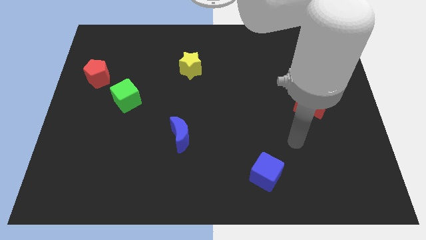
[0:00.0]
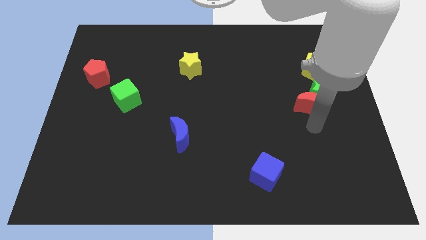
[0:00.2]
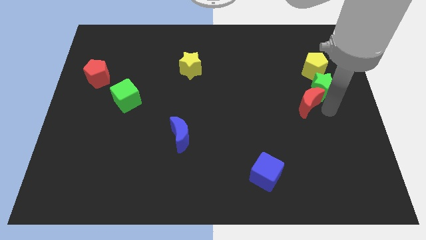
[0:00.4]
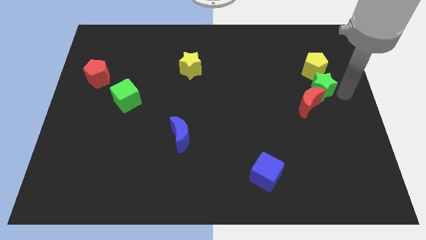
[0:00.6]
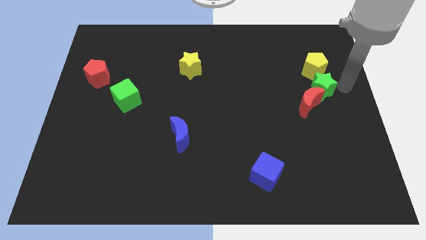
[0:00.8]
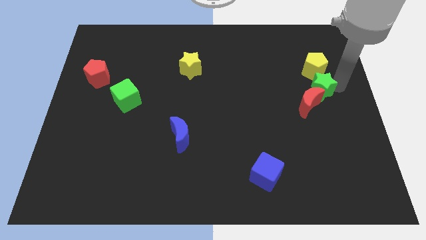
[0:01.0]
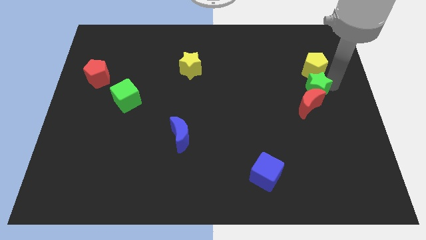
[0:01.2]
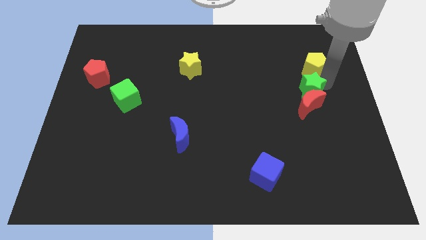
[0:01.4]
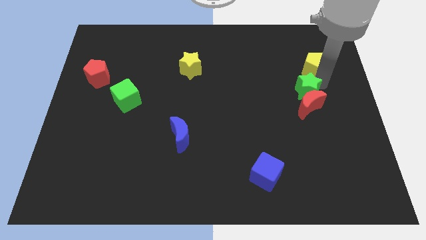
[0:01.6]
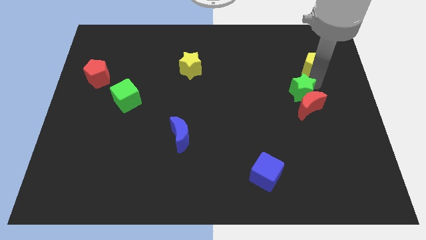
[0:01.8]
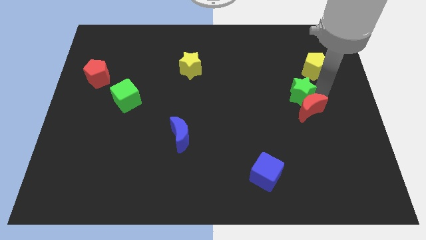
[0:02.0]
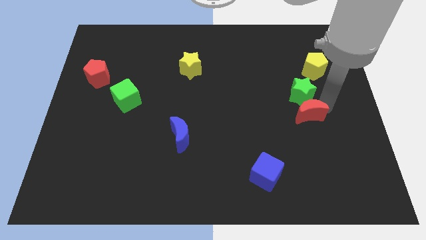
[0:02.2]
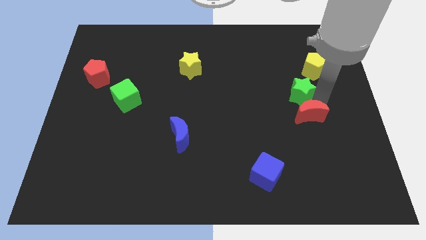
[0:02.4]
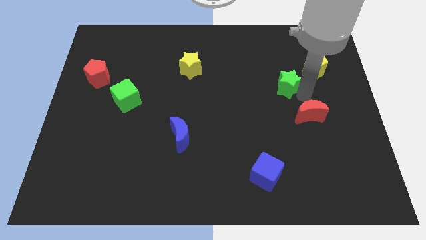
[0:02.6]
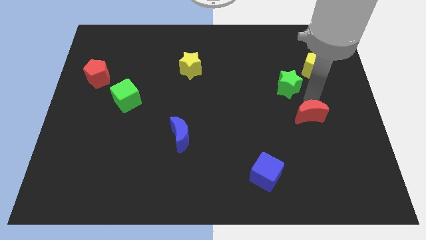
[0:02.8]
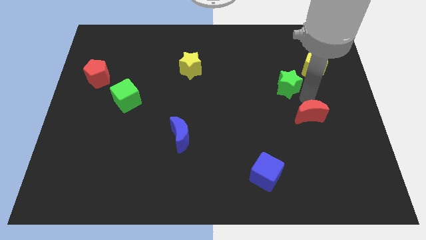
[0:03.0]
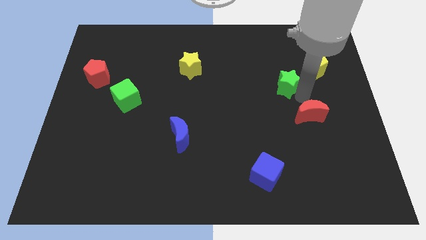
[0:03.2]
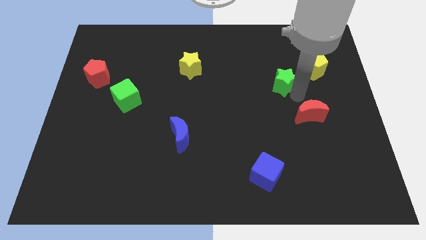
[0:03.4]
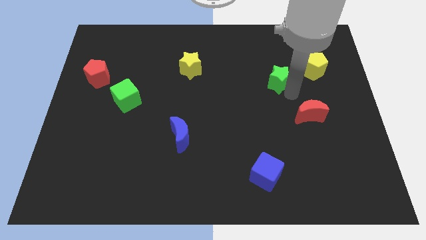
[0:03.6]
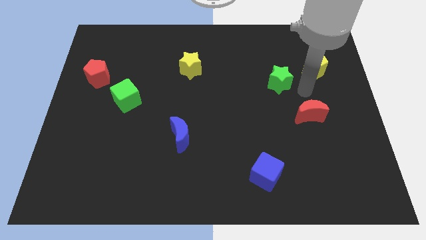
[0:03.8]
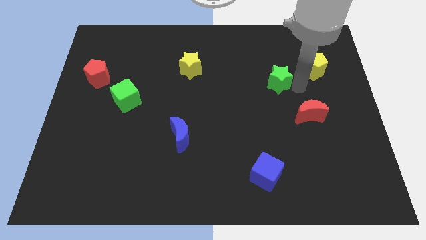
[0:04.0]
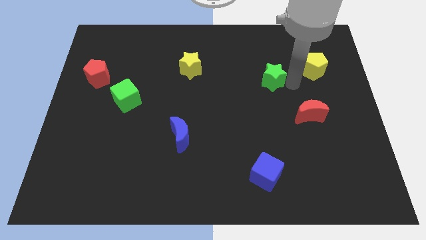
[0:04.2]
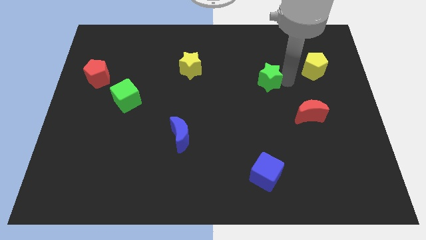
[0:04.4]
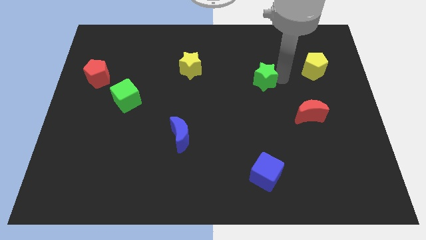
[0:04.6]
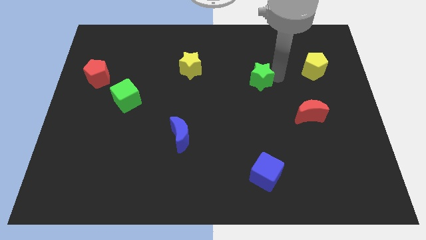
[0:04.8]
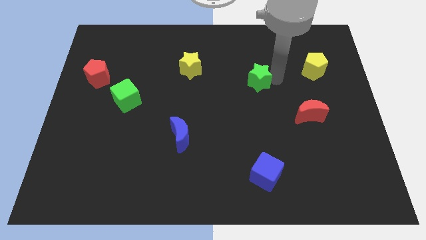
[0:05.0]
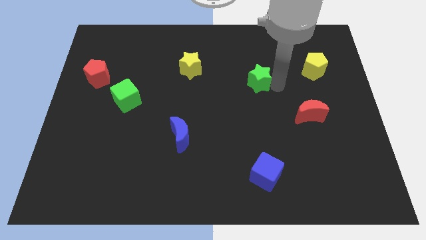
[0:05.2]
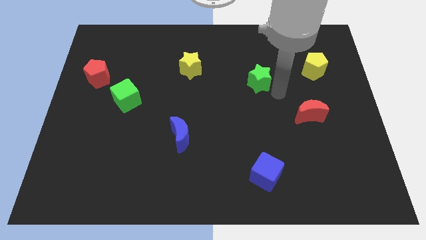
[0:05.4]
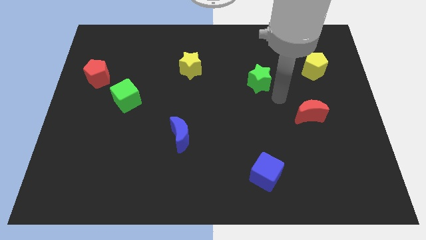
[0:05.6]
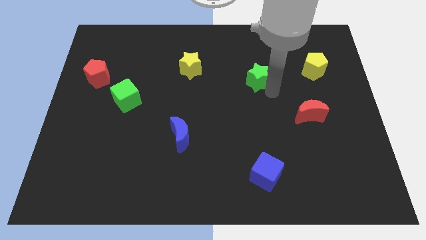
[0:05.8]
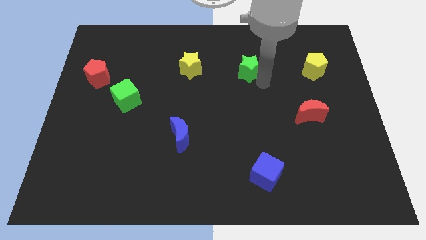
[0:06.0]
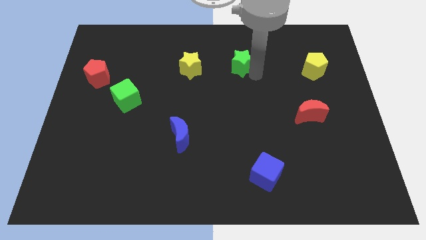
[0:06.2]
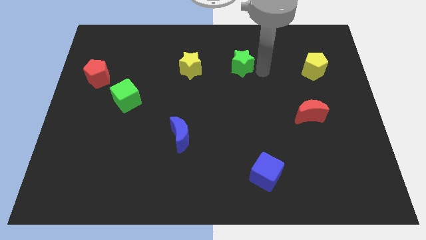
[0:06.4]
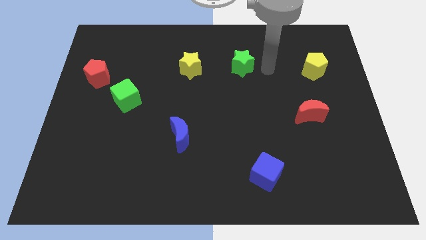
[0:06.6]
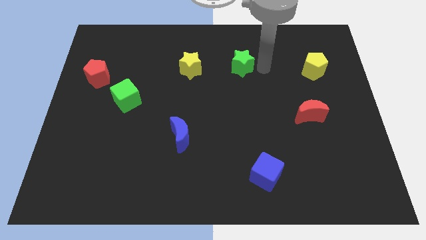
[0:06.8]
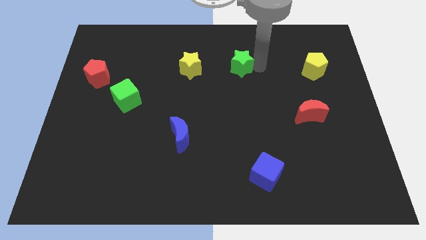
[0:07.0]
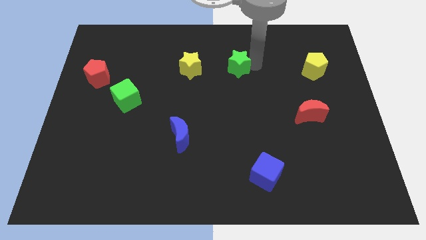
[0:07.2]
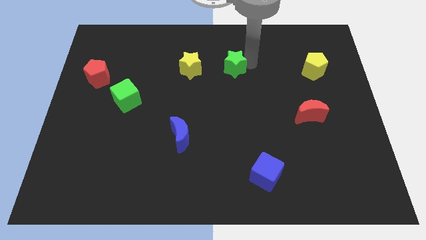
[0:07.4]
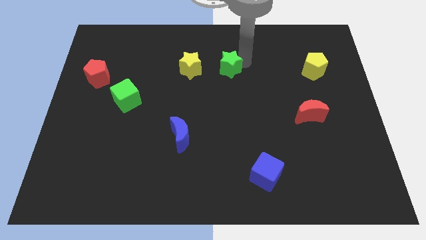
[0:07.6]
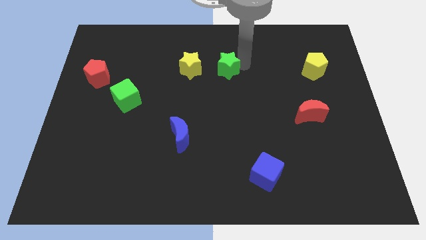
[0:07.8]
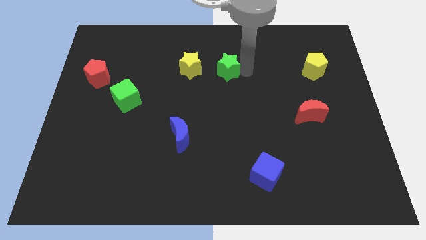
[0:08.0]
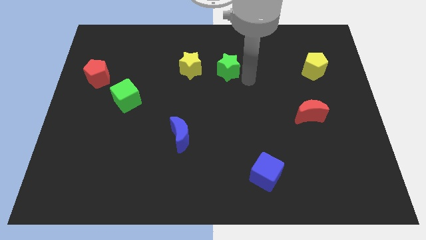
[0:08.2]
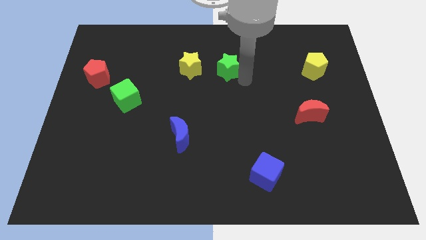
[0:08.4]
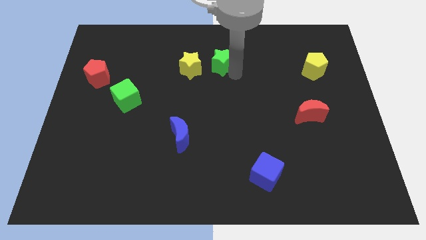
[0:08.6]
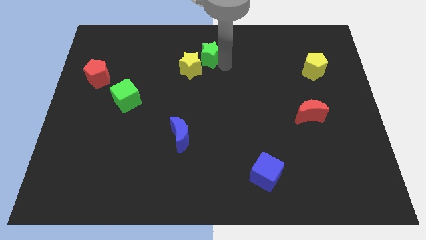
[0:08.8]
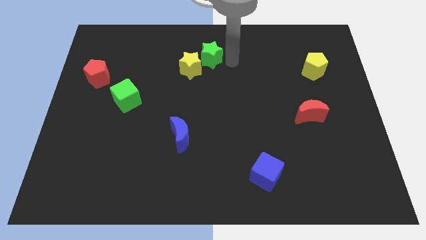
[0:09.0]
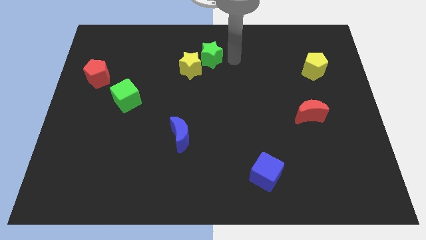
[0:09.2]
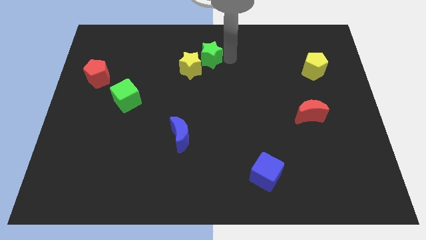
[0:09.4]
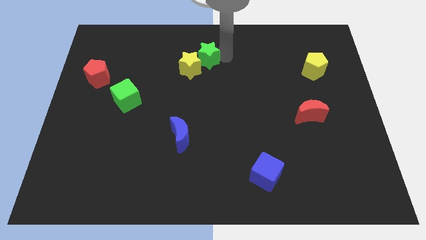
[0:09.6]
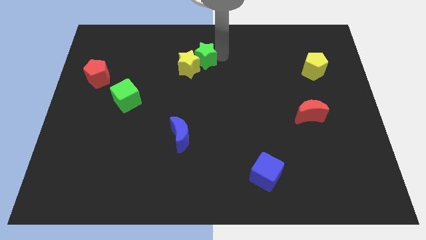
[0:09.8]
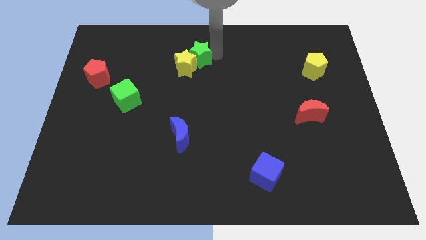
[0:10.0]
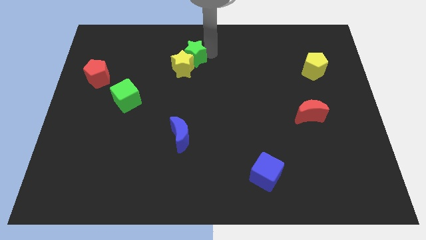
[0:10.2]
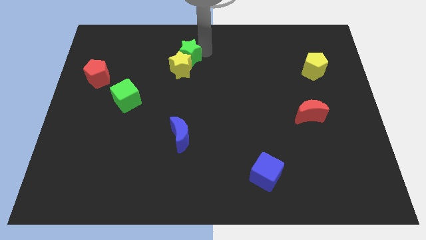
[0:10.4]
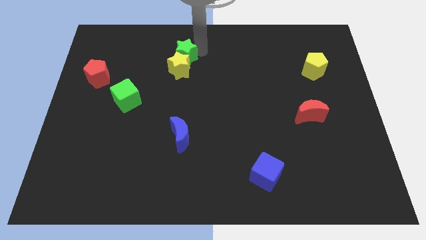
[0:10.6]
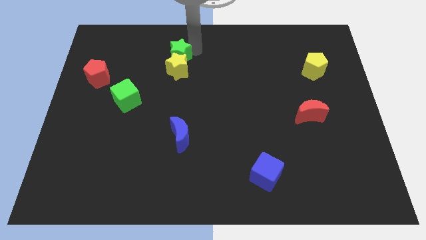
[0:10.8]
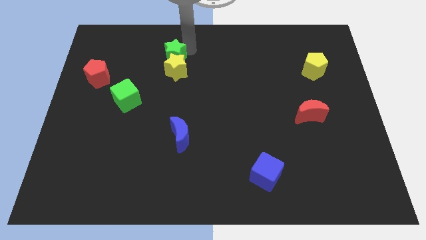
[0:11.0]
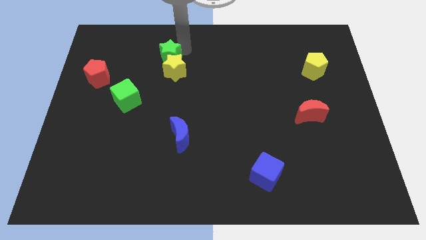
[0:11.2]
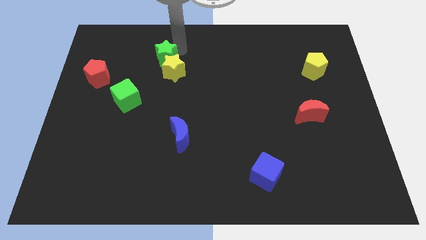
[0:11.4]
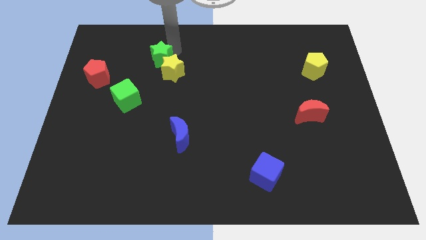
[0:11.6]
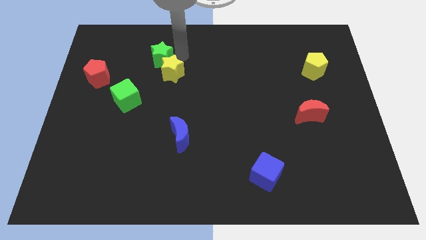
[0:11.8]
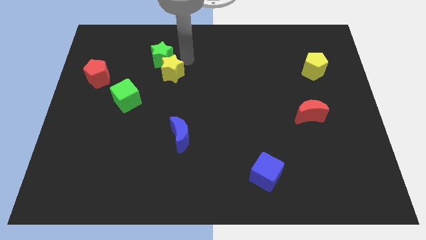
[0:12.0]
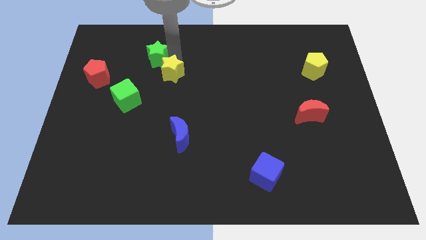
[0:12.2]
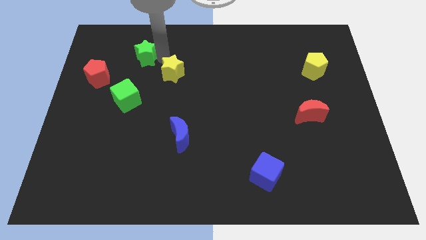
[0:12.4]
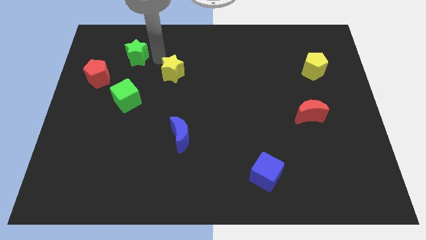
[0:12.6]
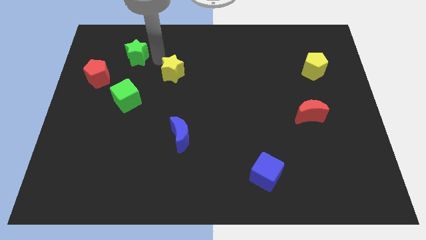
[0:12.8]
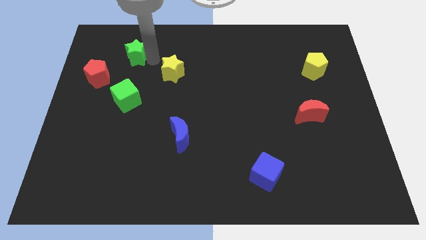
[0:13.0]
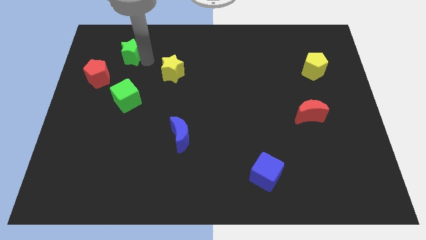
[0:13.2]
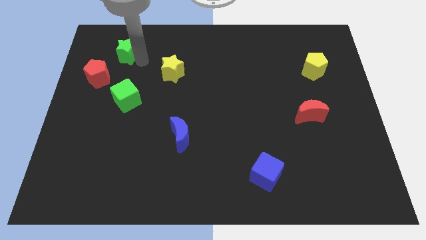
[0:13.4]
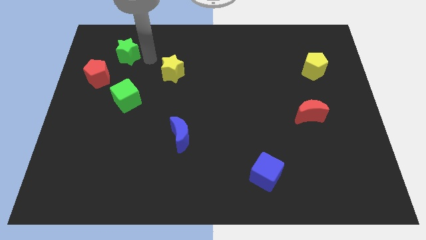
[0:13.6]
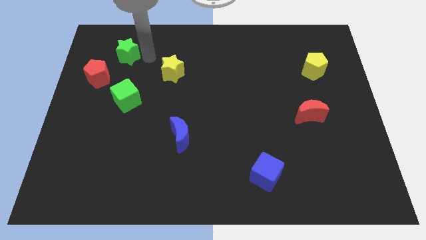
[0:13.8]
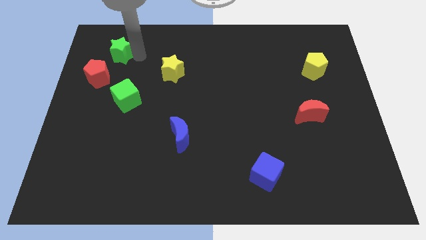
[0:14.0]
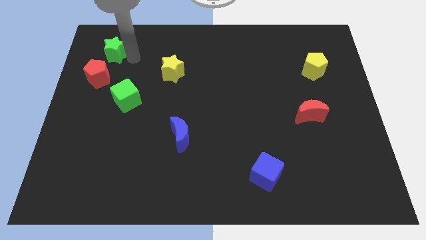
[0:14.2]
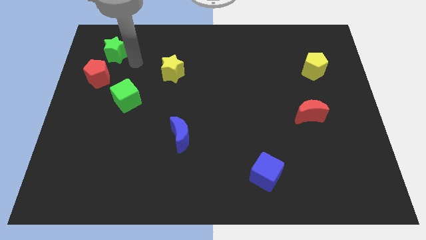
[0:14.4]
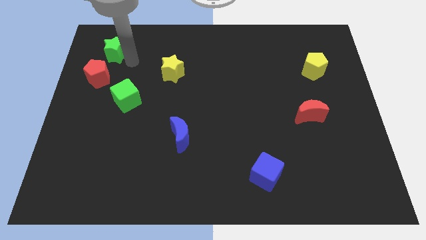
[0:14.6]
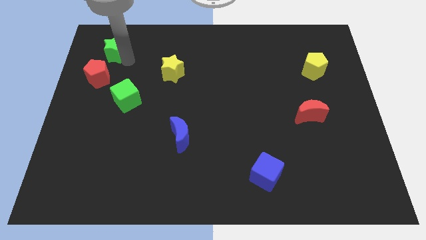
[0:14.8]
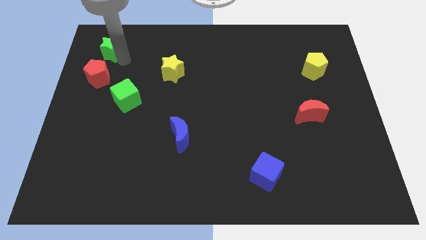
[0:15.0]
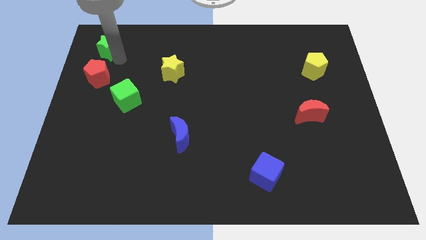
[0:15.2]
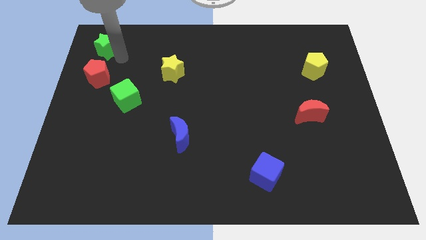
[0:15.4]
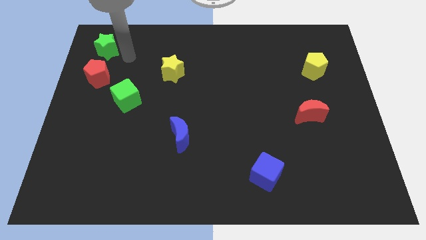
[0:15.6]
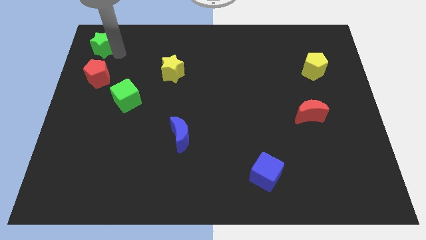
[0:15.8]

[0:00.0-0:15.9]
put the green star to the top left
